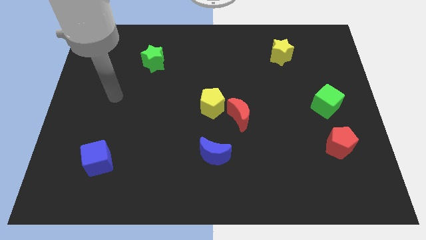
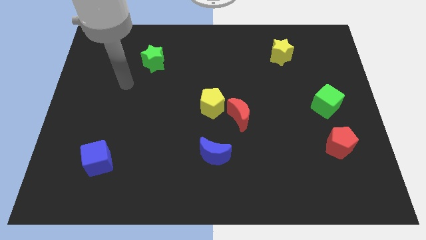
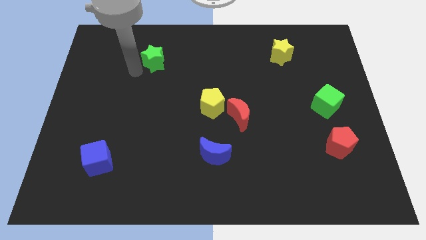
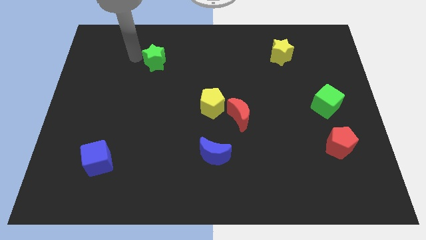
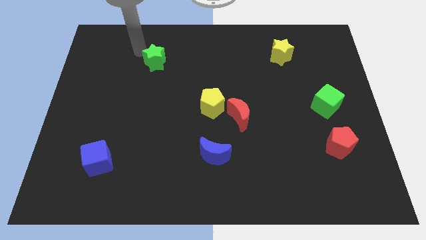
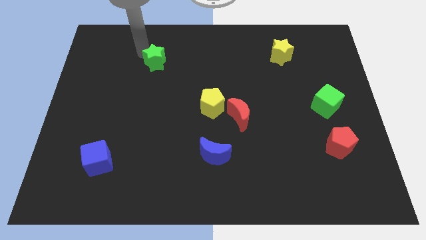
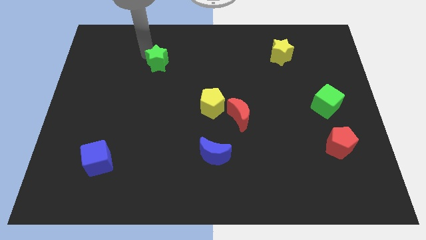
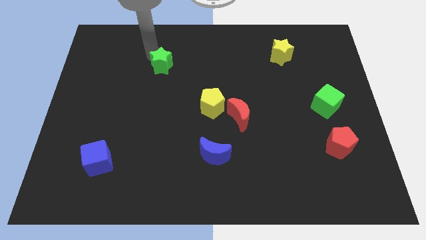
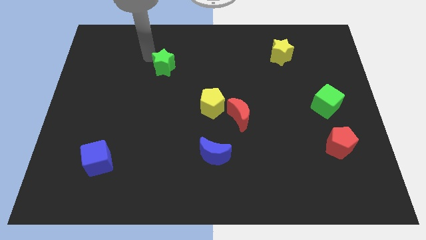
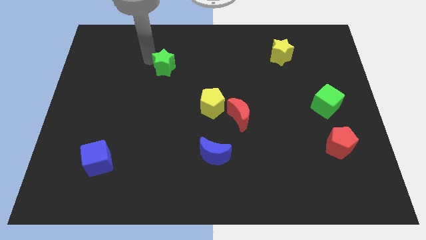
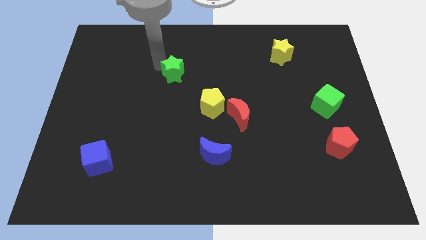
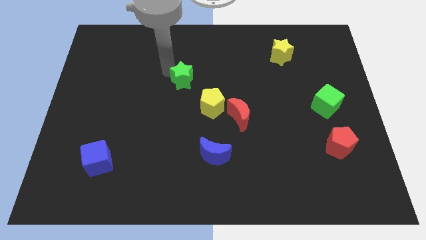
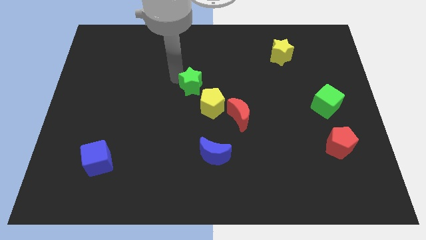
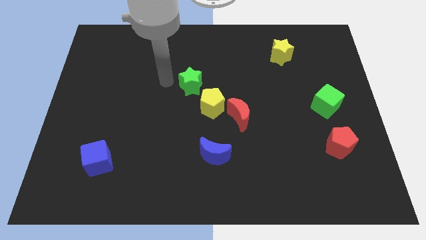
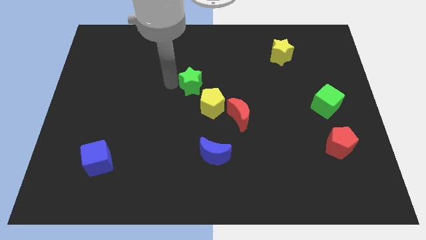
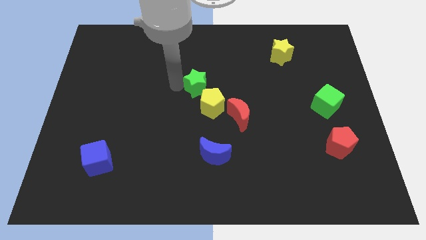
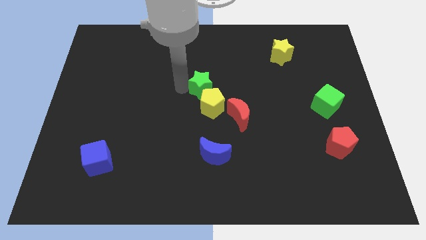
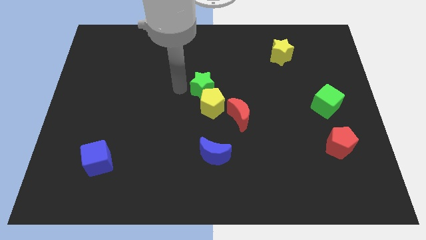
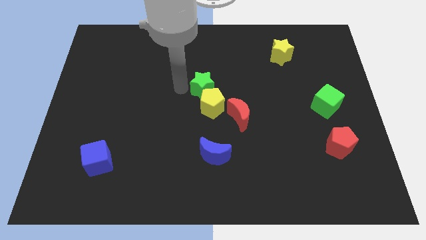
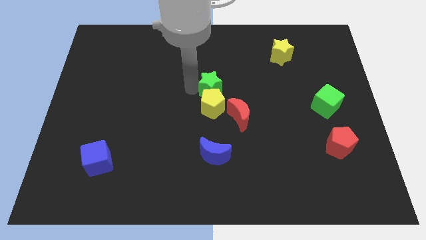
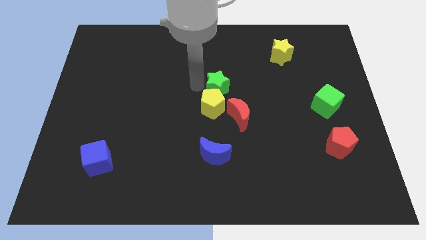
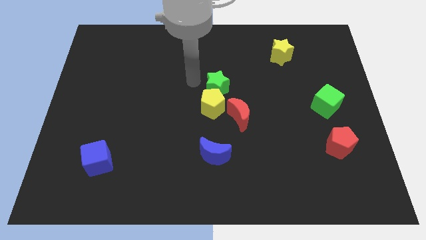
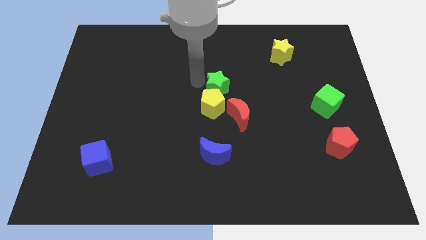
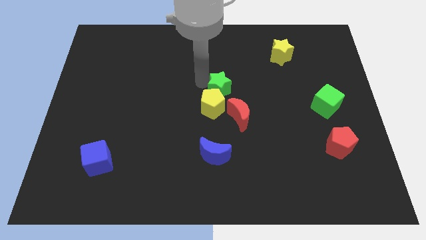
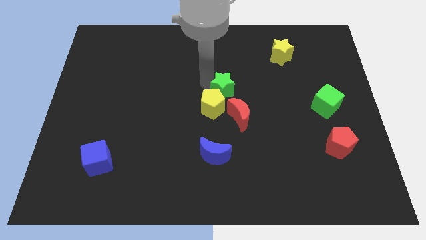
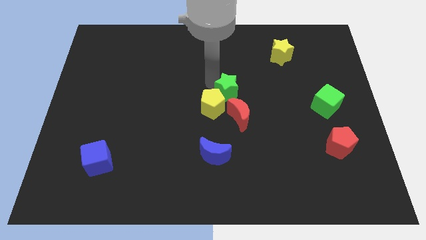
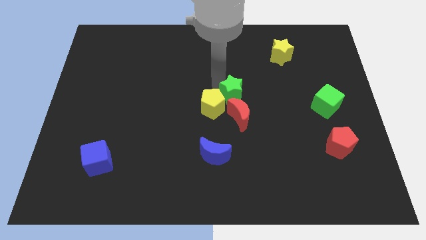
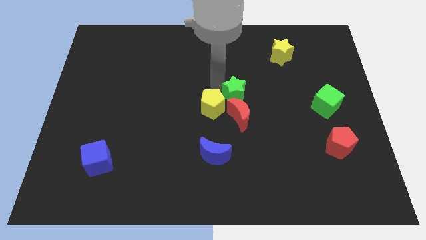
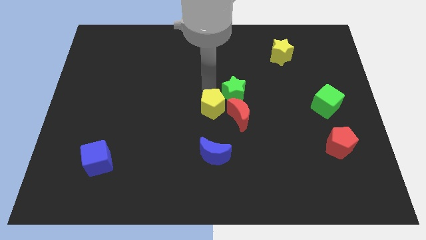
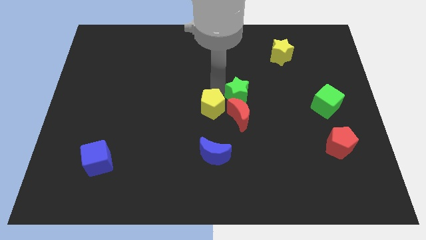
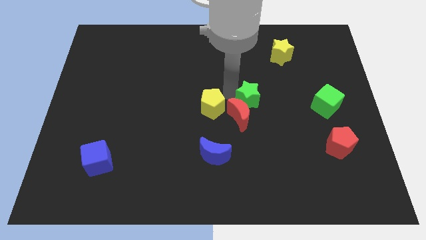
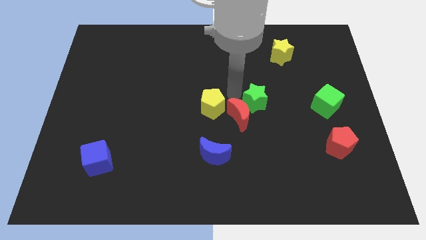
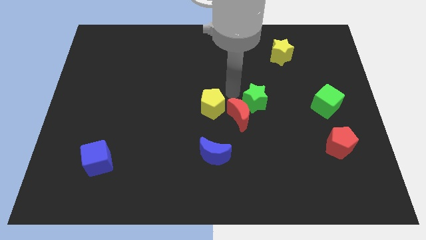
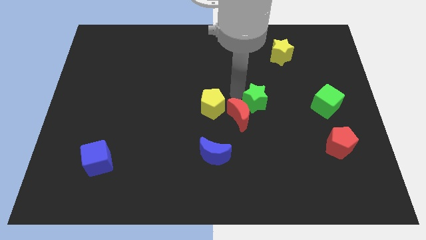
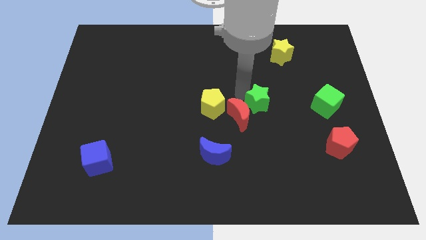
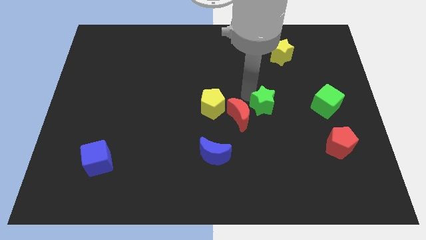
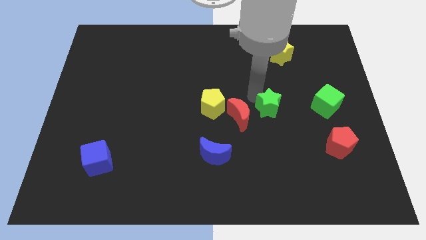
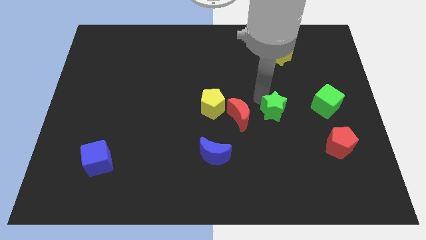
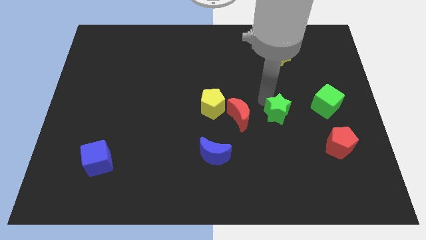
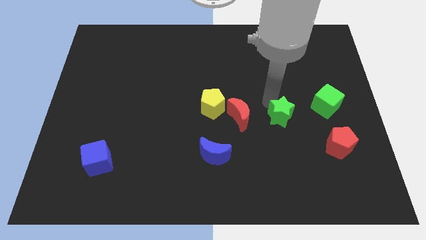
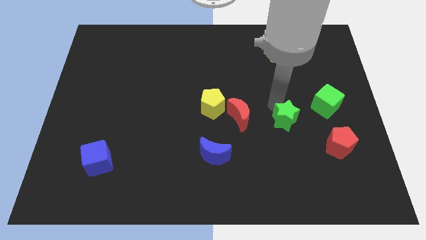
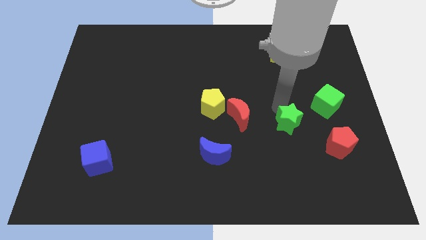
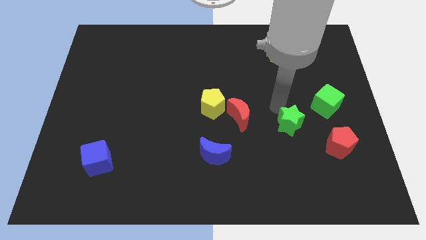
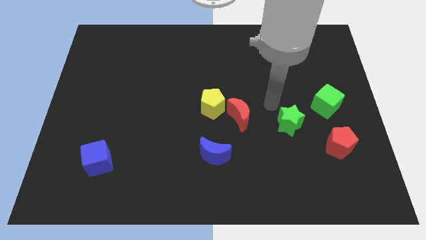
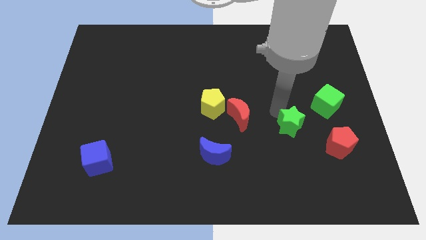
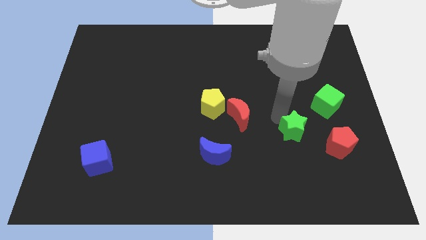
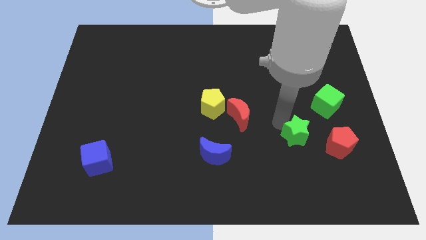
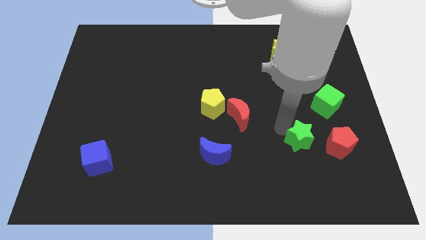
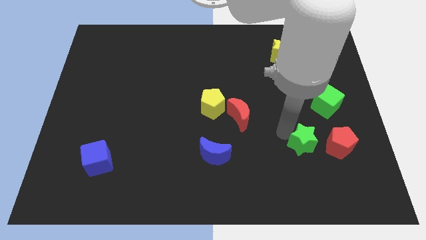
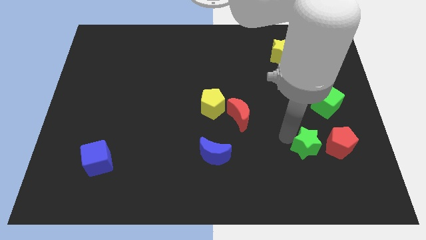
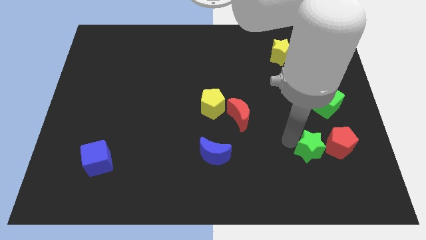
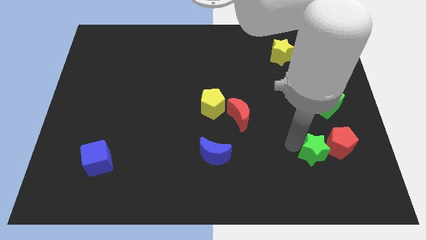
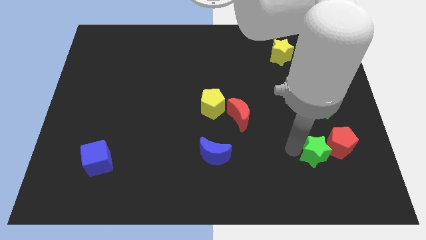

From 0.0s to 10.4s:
move the green star next to the red pentagon

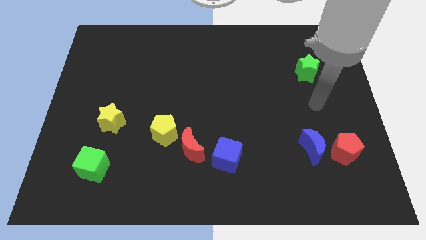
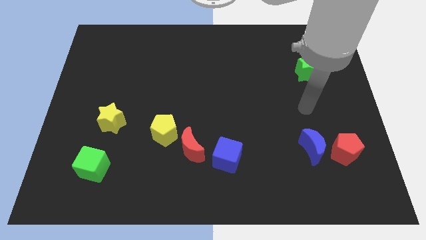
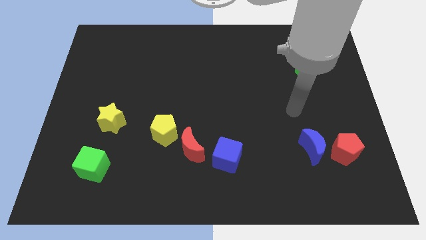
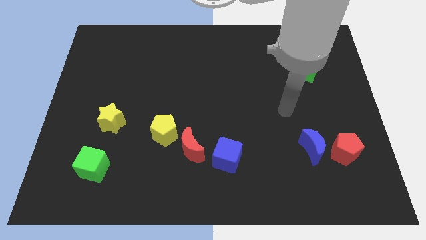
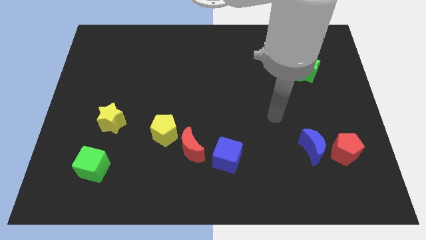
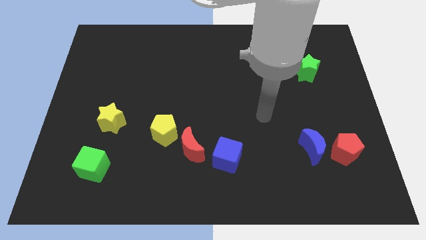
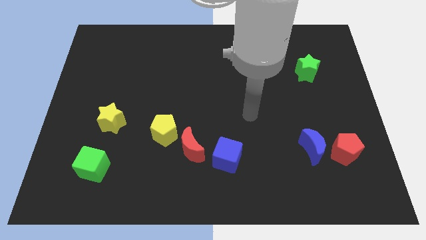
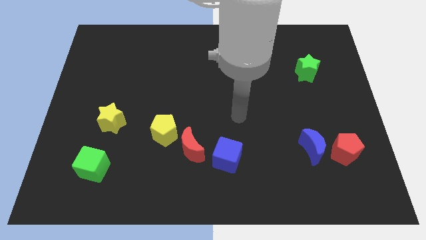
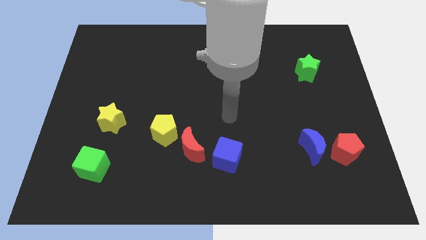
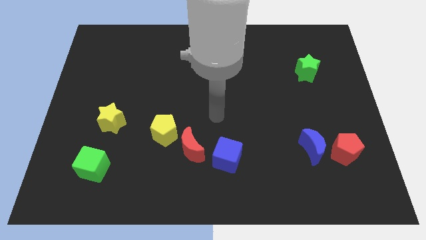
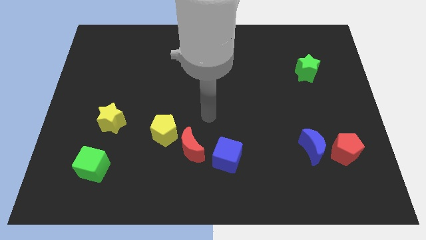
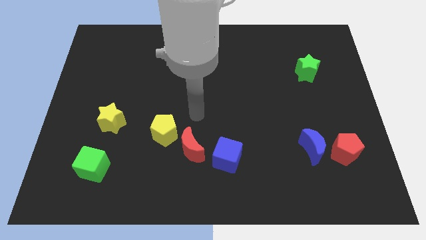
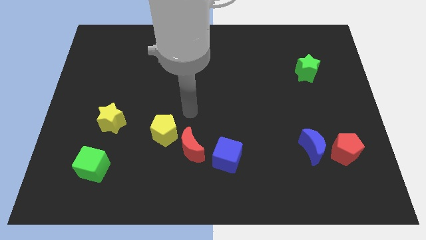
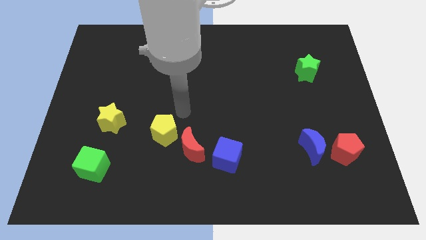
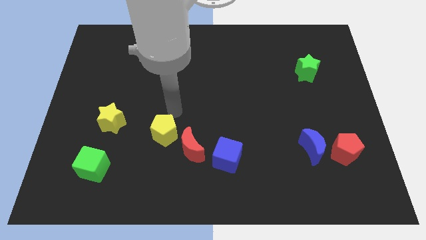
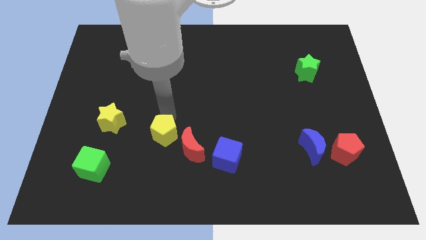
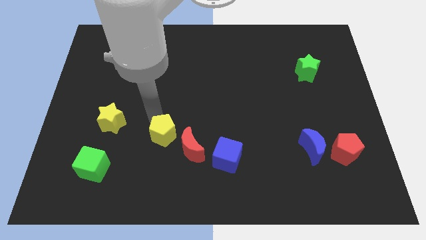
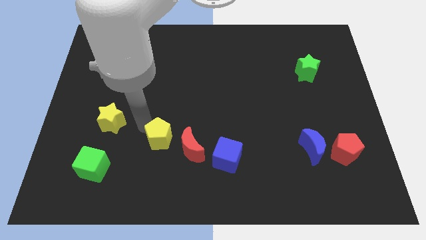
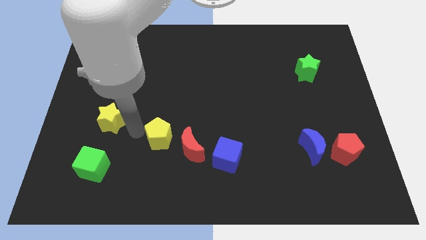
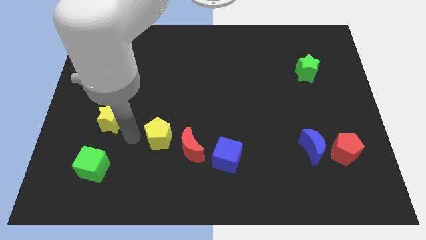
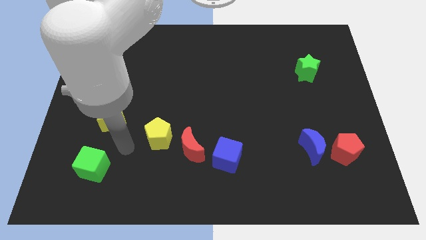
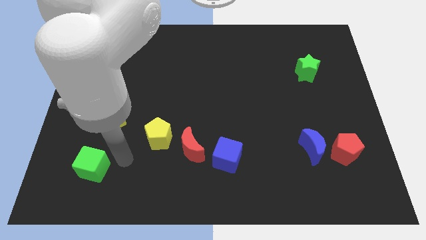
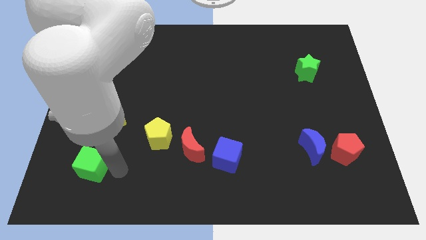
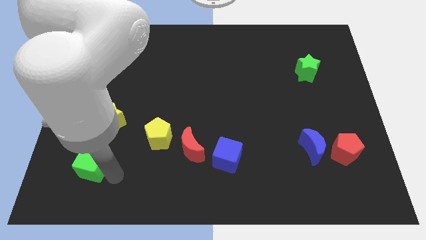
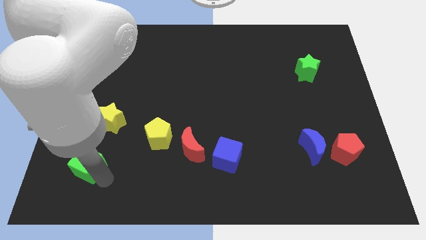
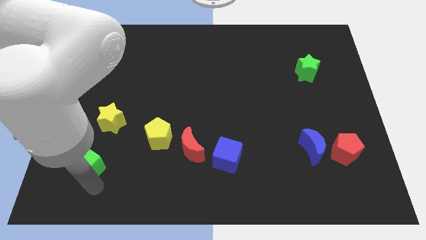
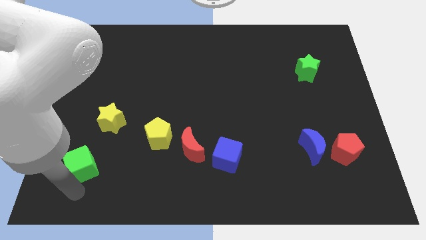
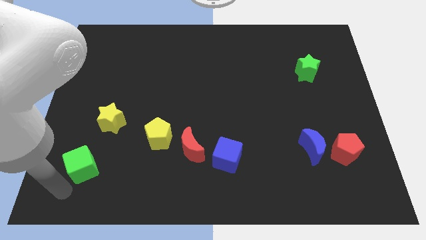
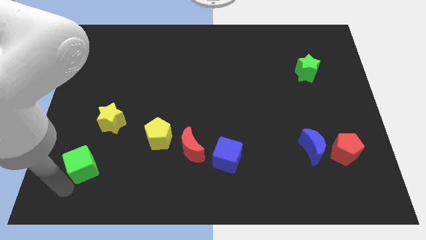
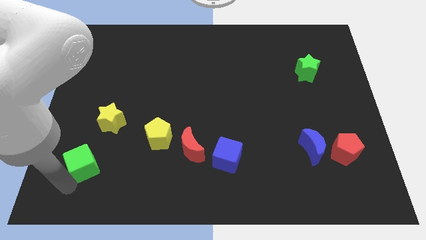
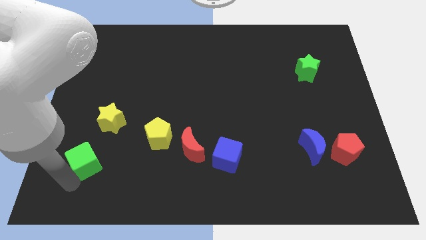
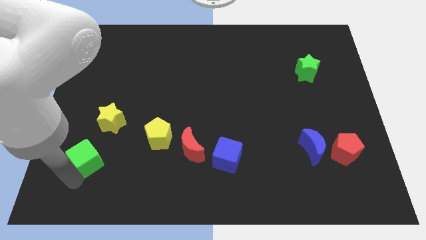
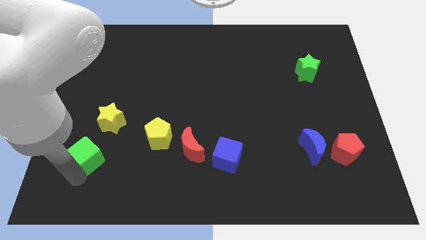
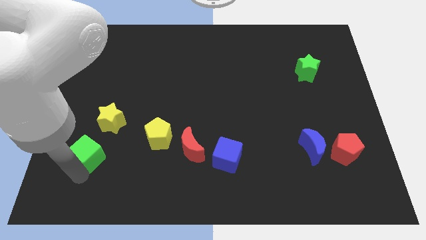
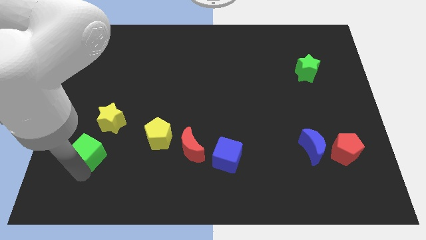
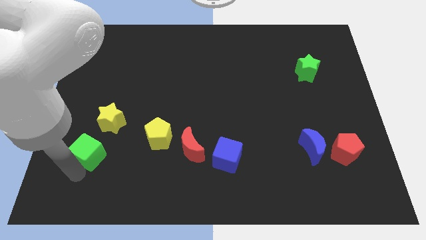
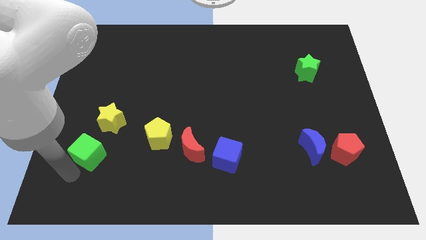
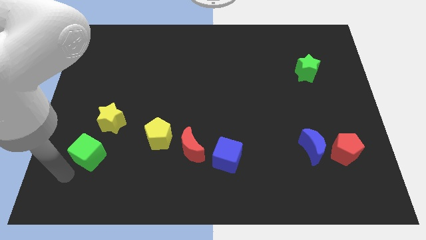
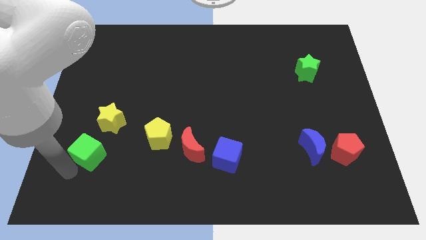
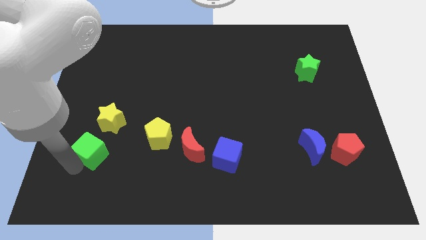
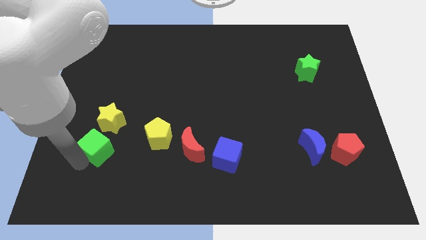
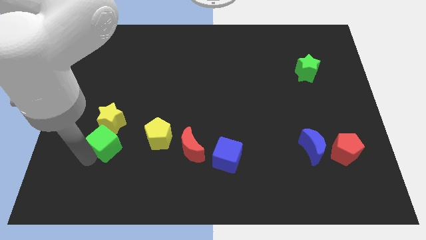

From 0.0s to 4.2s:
push the green cube towards the yellow star
